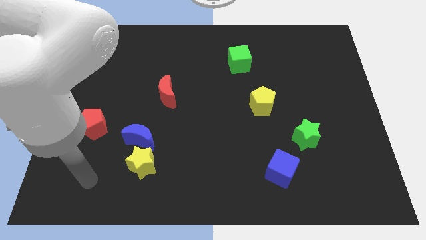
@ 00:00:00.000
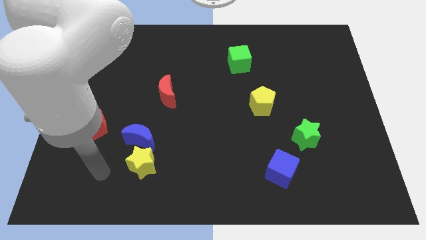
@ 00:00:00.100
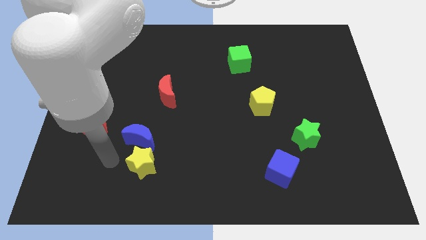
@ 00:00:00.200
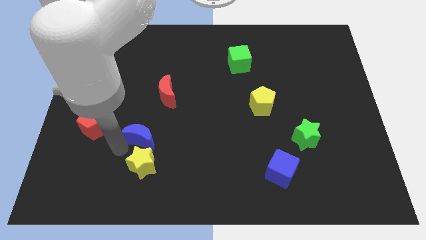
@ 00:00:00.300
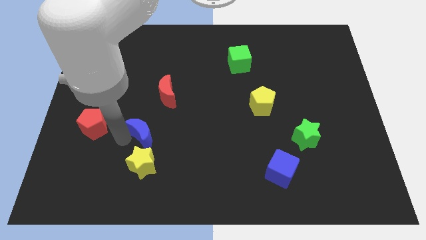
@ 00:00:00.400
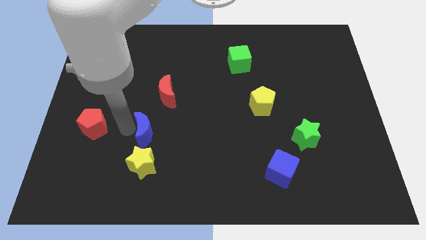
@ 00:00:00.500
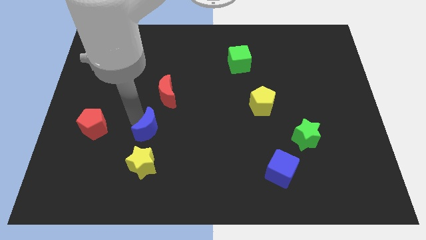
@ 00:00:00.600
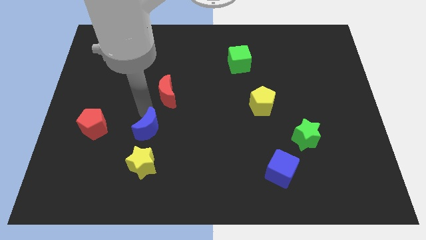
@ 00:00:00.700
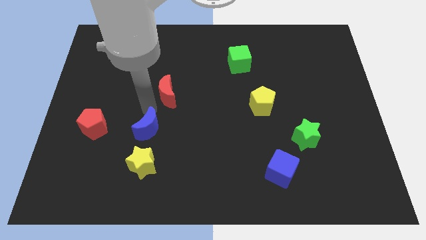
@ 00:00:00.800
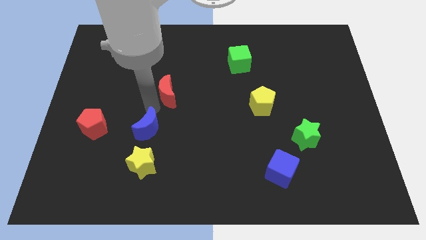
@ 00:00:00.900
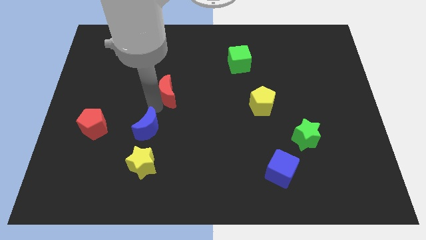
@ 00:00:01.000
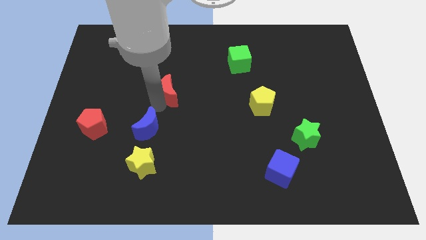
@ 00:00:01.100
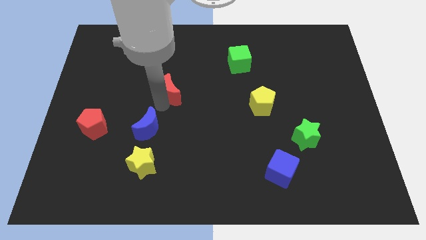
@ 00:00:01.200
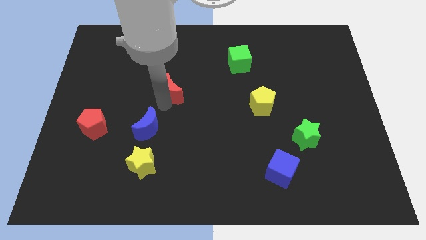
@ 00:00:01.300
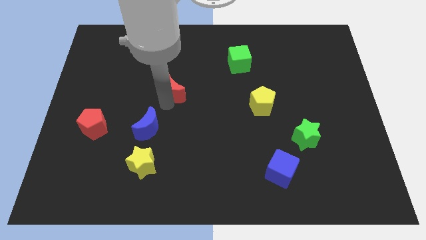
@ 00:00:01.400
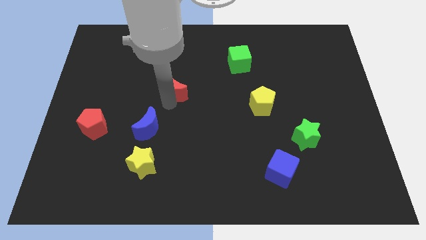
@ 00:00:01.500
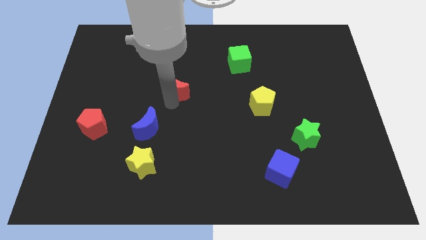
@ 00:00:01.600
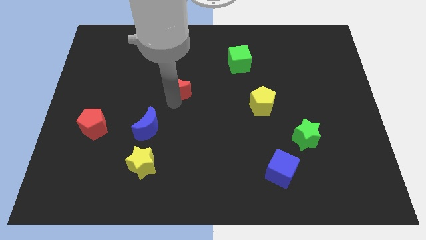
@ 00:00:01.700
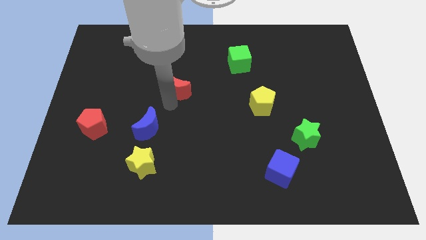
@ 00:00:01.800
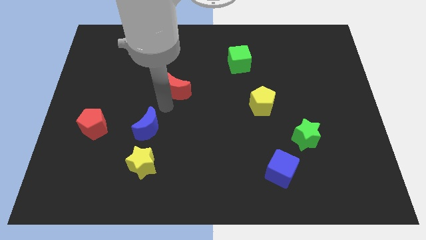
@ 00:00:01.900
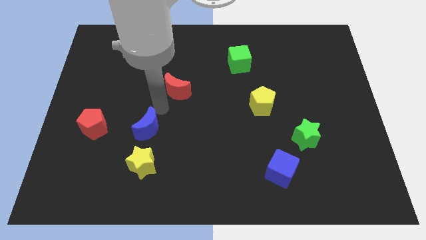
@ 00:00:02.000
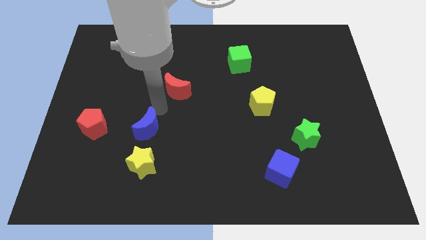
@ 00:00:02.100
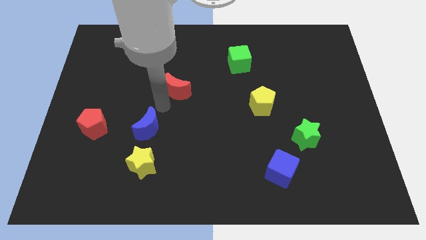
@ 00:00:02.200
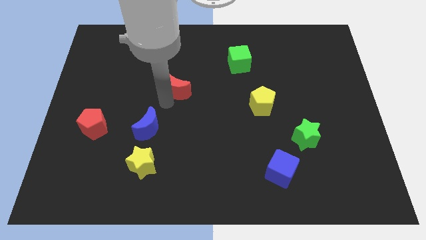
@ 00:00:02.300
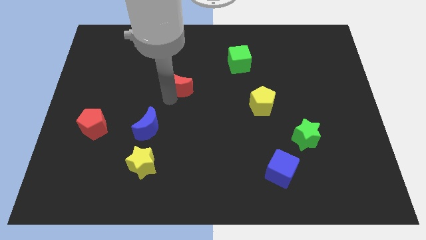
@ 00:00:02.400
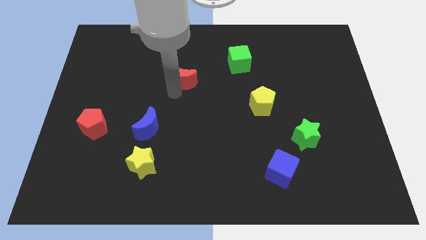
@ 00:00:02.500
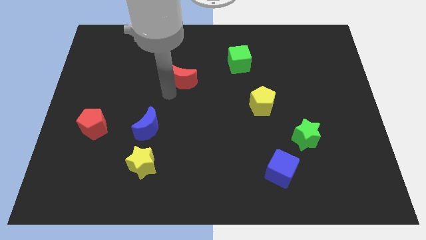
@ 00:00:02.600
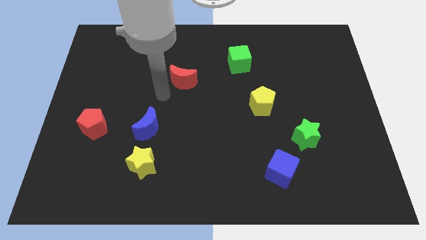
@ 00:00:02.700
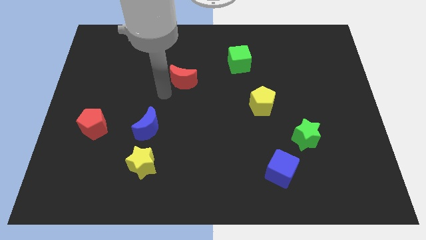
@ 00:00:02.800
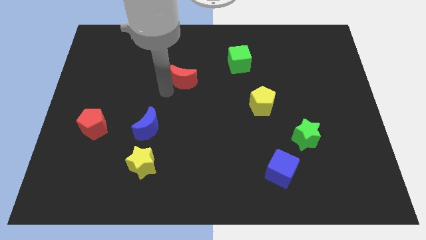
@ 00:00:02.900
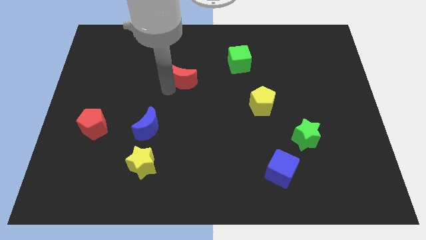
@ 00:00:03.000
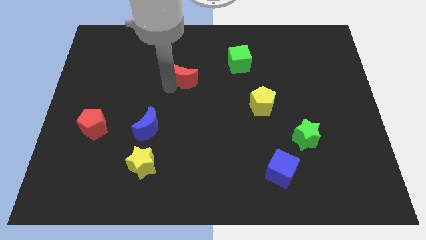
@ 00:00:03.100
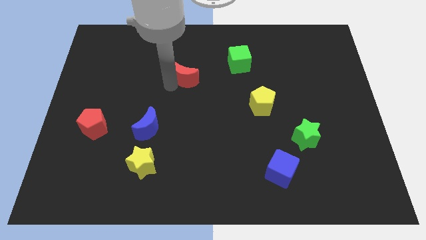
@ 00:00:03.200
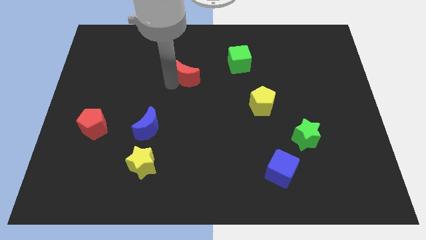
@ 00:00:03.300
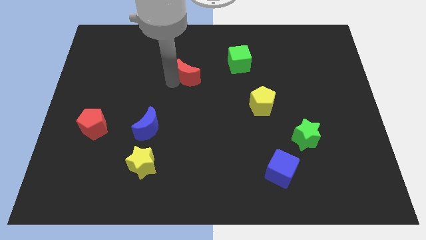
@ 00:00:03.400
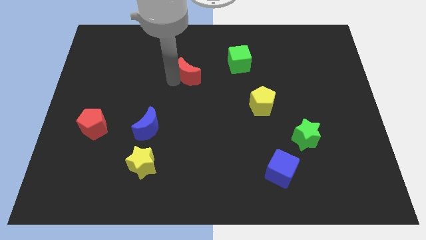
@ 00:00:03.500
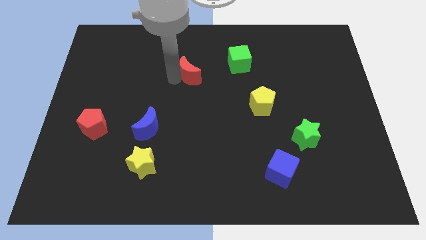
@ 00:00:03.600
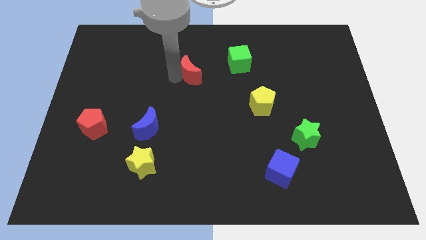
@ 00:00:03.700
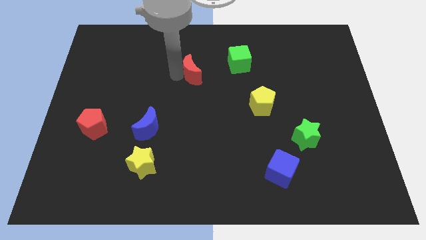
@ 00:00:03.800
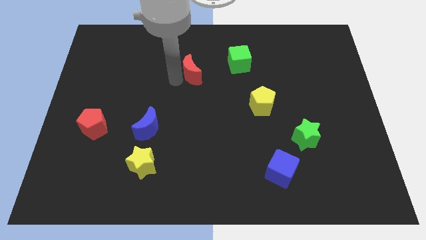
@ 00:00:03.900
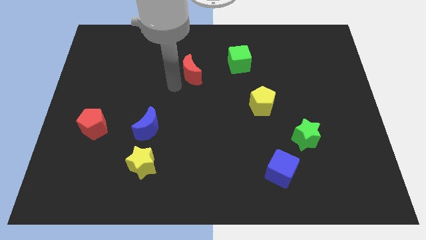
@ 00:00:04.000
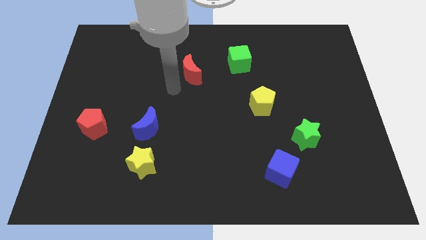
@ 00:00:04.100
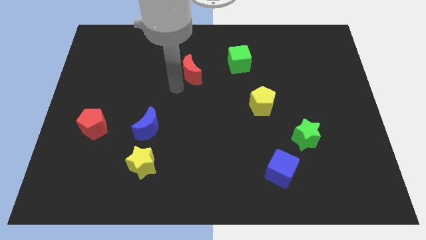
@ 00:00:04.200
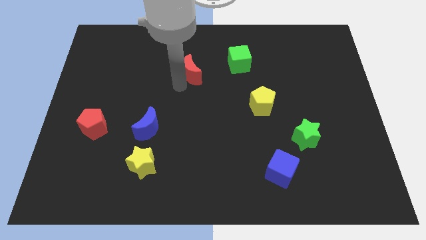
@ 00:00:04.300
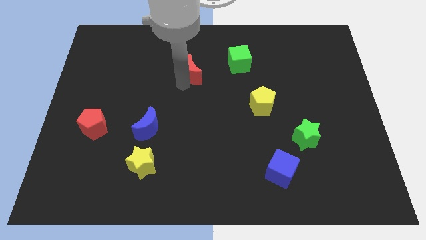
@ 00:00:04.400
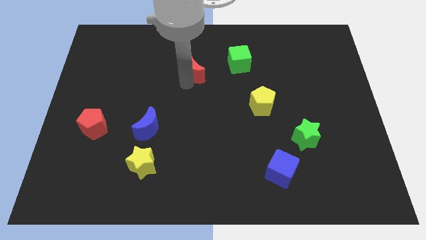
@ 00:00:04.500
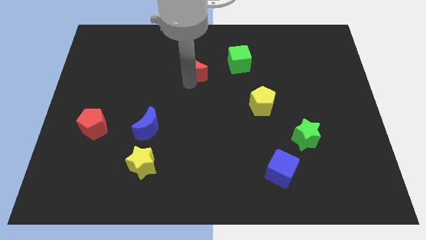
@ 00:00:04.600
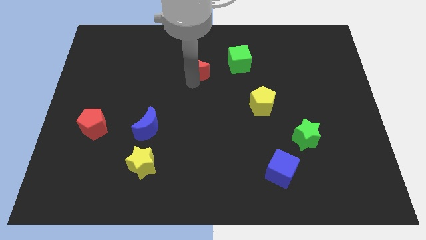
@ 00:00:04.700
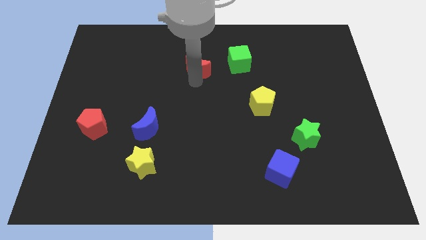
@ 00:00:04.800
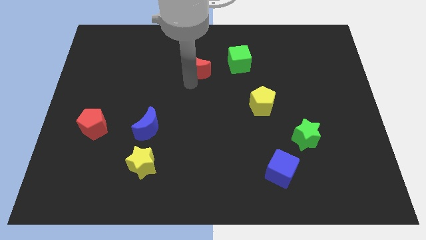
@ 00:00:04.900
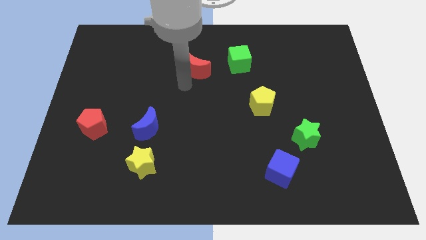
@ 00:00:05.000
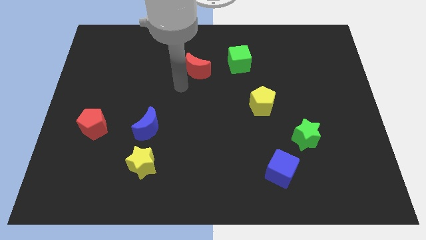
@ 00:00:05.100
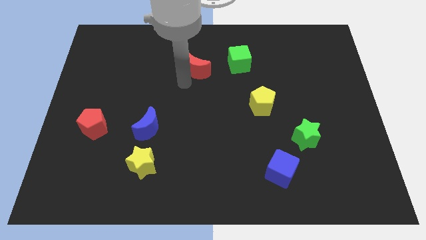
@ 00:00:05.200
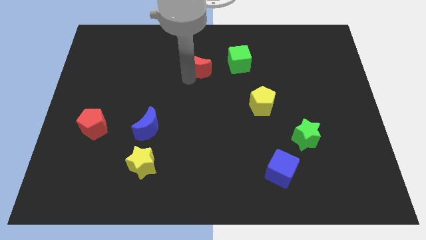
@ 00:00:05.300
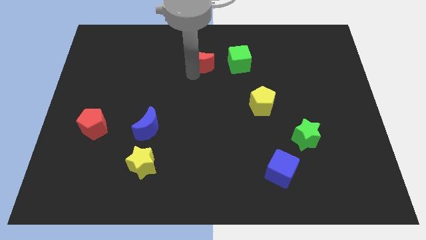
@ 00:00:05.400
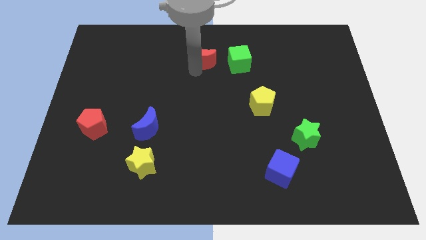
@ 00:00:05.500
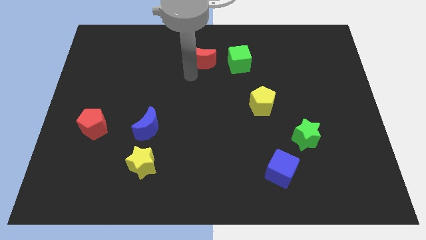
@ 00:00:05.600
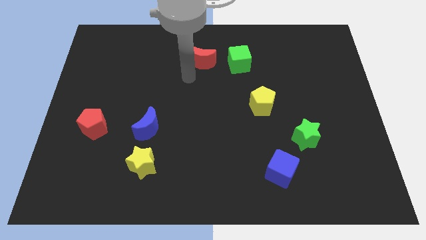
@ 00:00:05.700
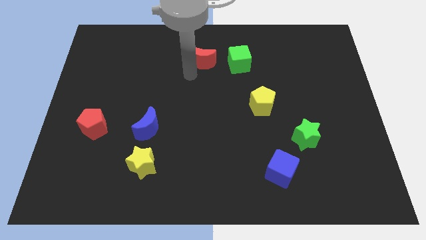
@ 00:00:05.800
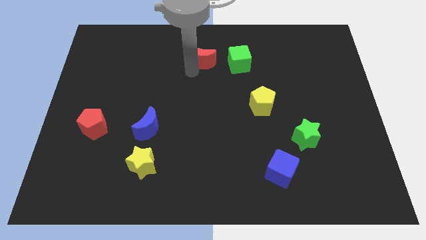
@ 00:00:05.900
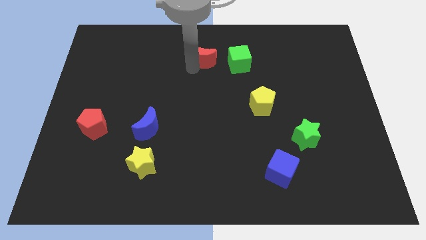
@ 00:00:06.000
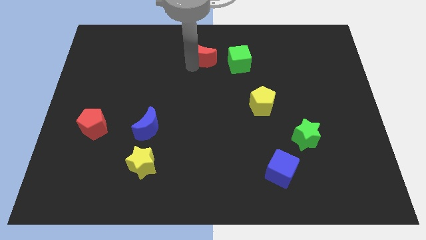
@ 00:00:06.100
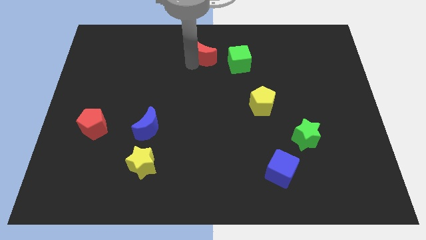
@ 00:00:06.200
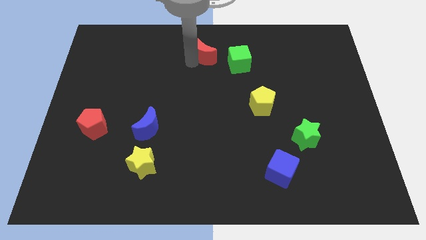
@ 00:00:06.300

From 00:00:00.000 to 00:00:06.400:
move the red moon to the top side

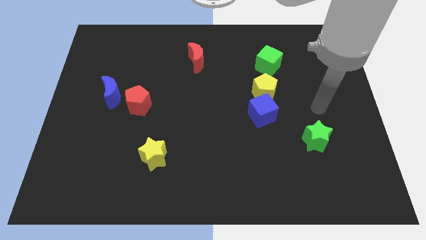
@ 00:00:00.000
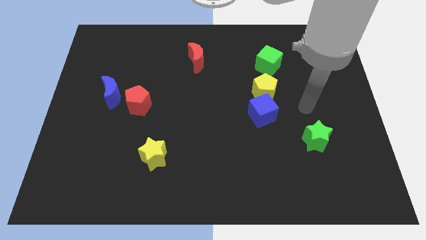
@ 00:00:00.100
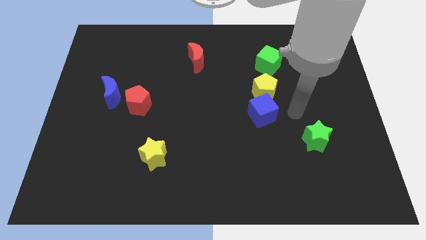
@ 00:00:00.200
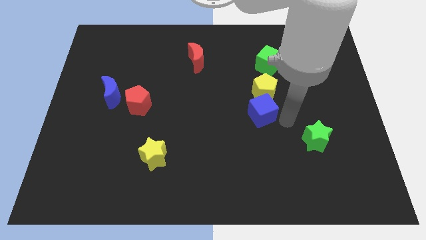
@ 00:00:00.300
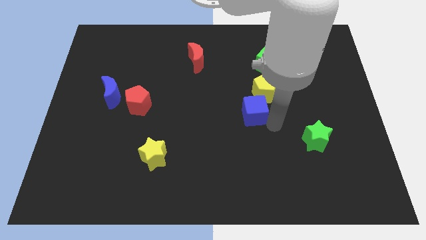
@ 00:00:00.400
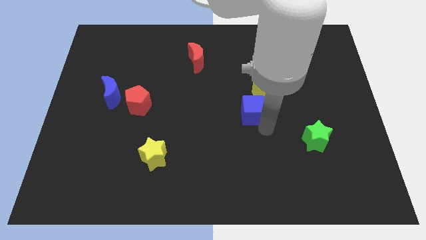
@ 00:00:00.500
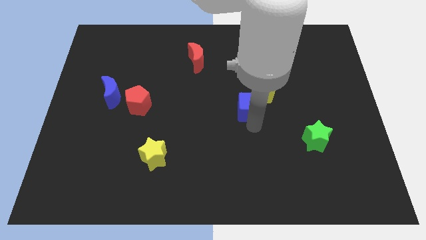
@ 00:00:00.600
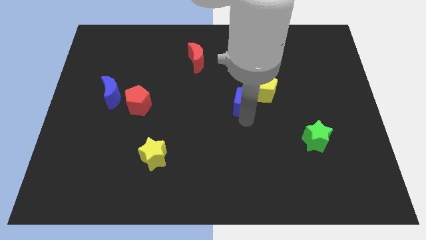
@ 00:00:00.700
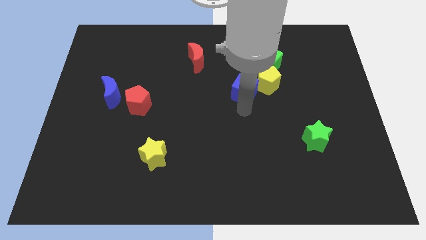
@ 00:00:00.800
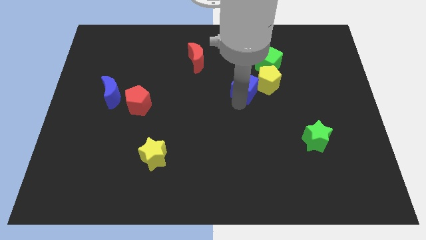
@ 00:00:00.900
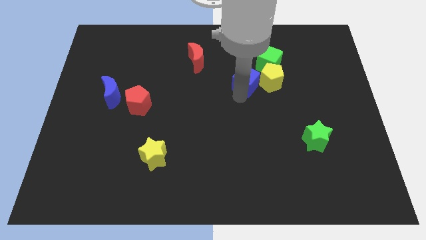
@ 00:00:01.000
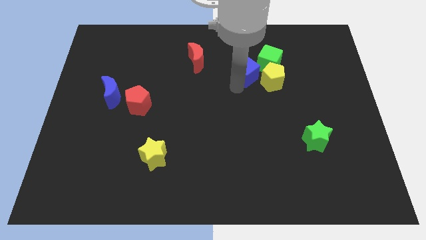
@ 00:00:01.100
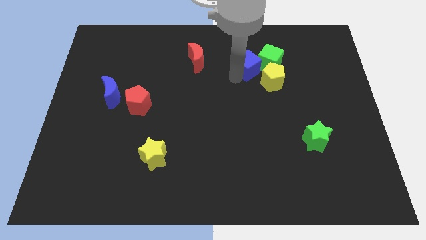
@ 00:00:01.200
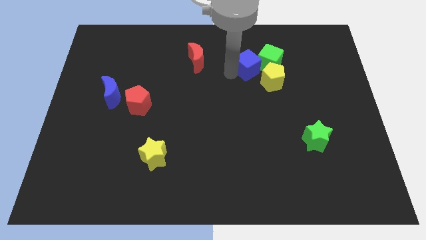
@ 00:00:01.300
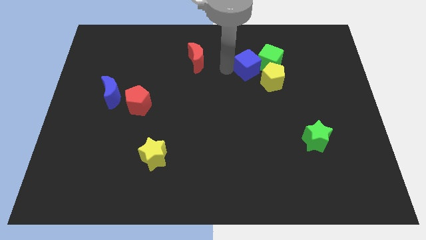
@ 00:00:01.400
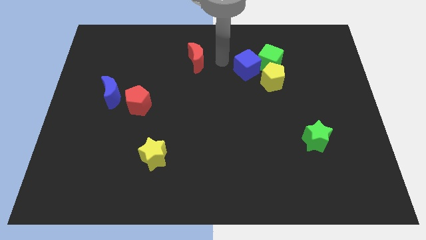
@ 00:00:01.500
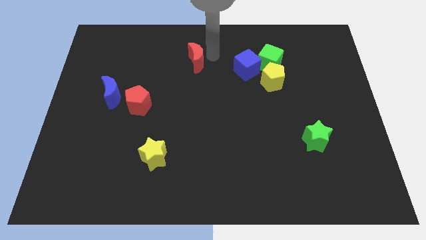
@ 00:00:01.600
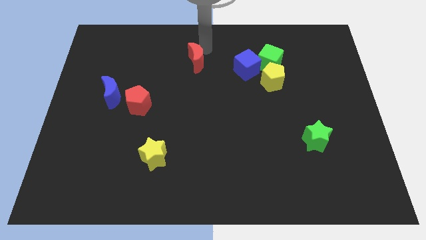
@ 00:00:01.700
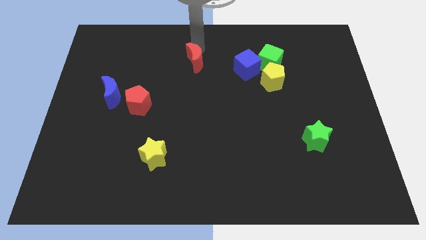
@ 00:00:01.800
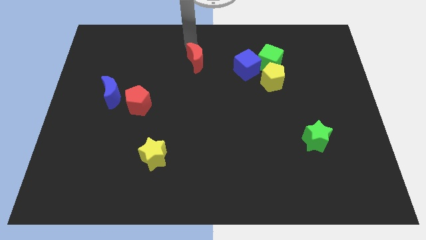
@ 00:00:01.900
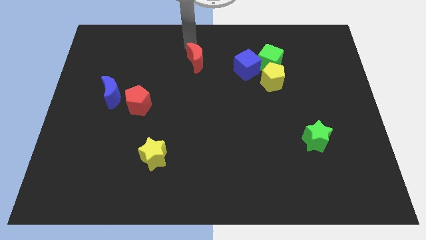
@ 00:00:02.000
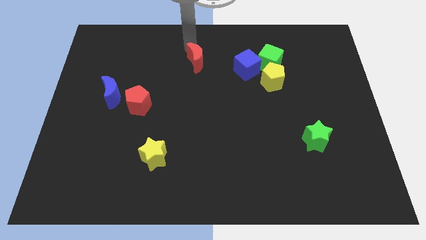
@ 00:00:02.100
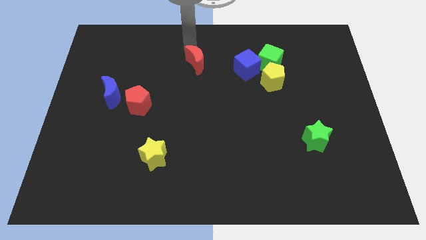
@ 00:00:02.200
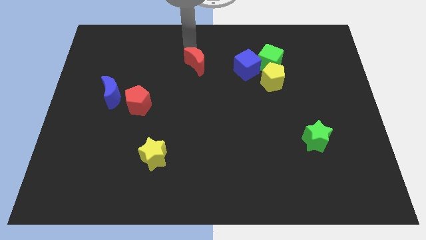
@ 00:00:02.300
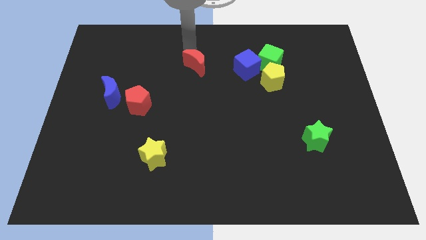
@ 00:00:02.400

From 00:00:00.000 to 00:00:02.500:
put the red moon to the middle of the board
